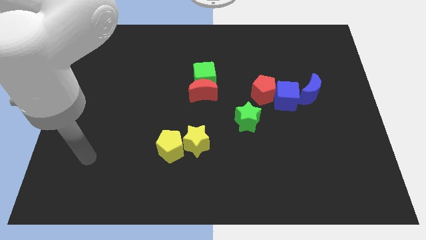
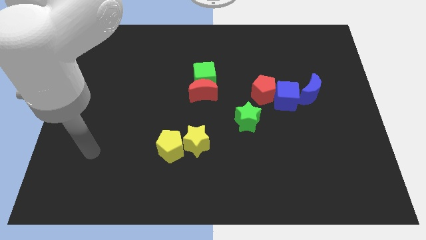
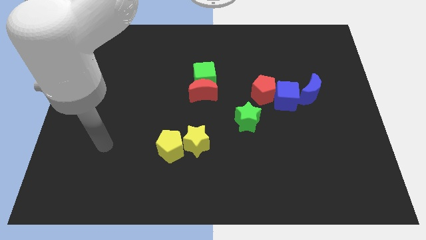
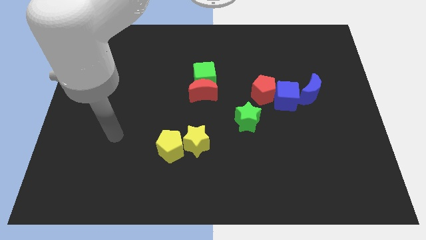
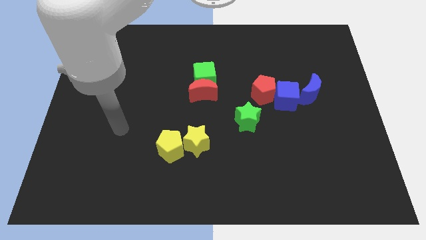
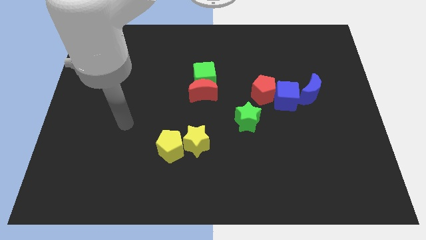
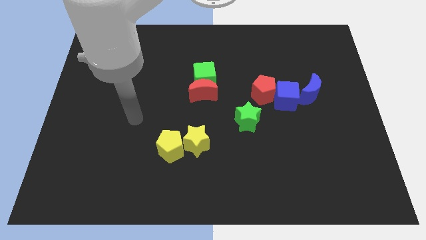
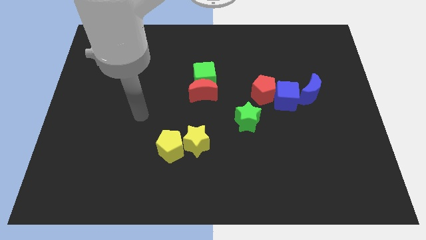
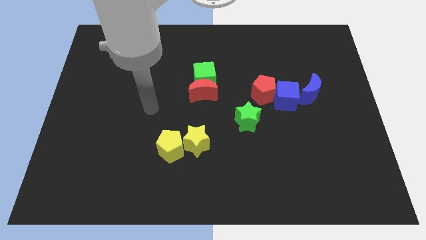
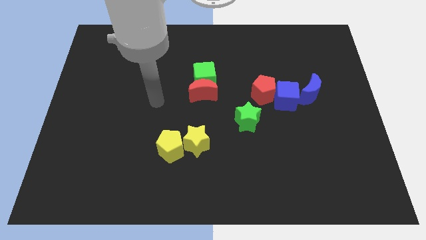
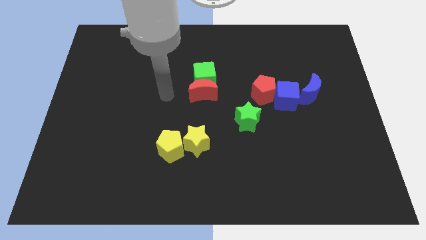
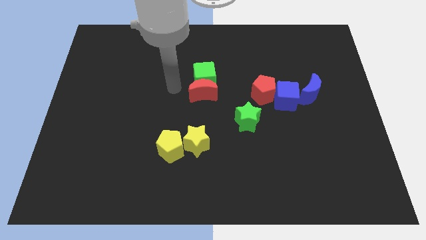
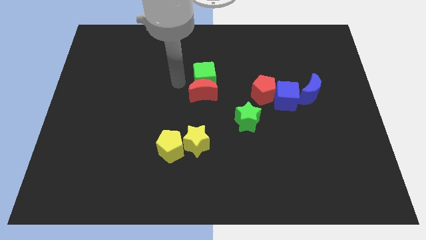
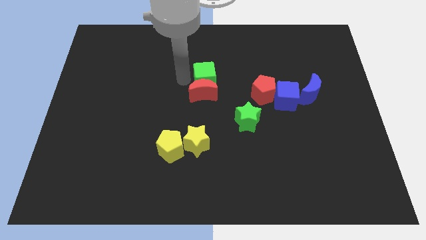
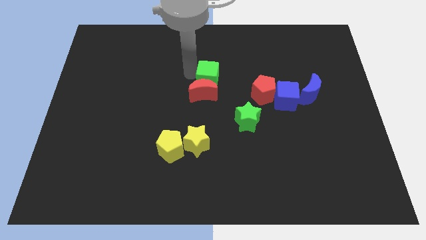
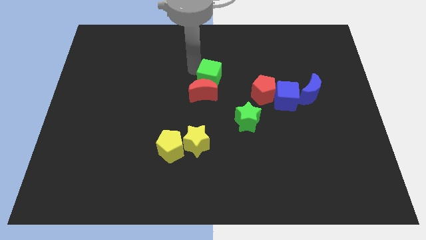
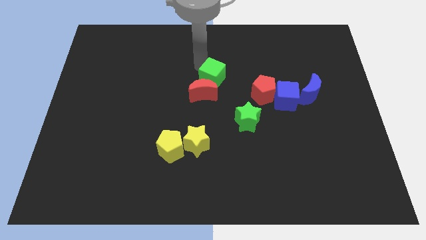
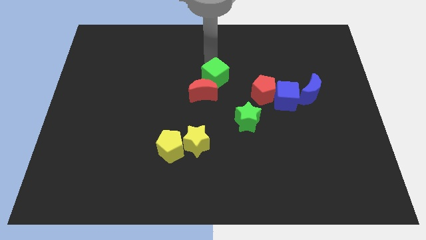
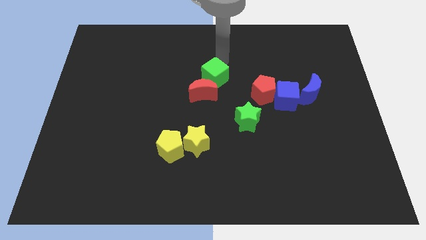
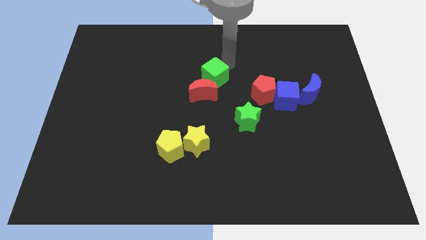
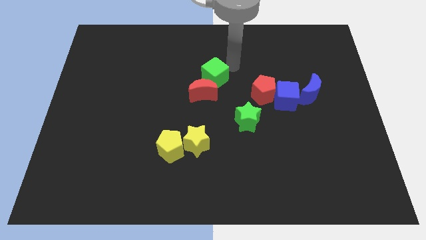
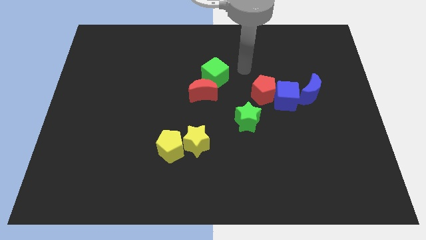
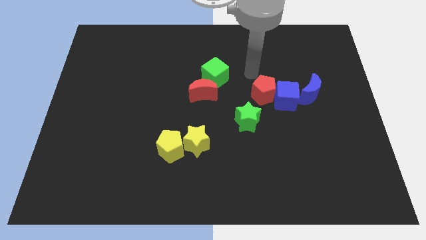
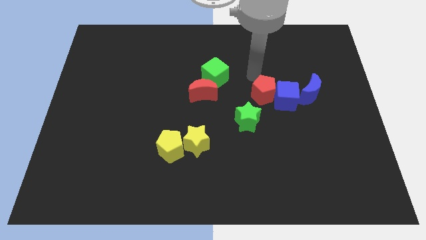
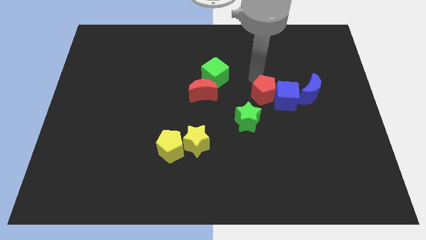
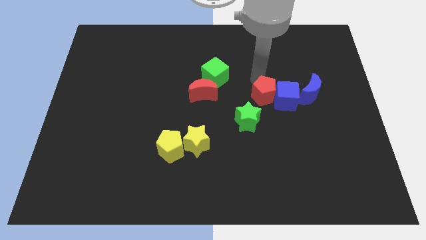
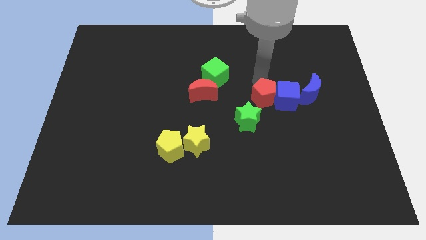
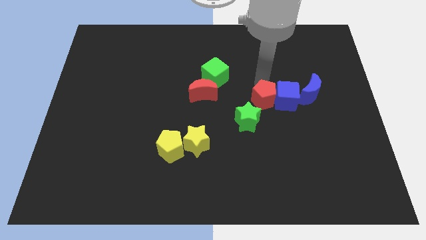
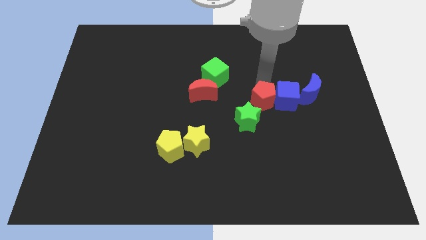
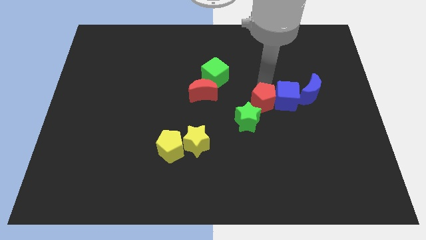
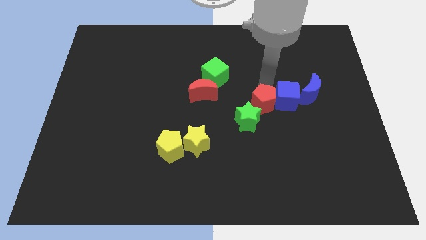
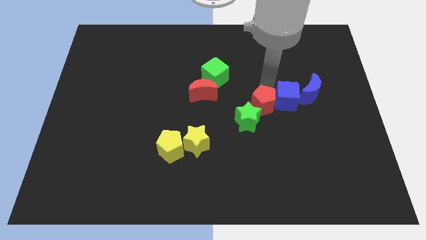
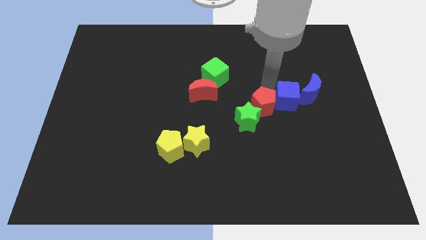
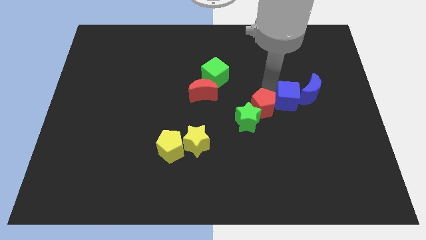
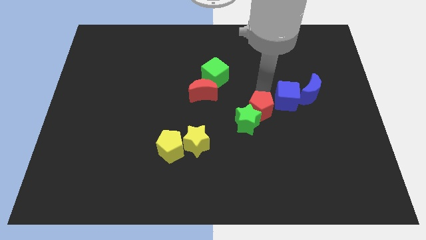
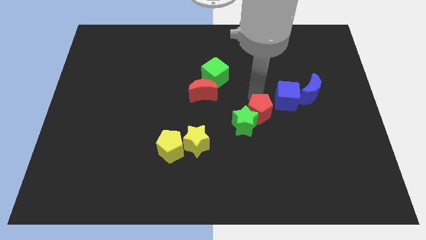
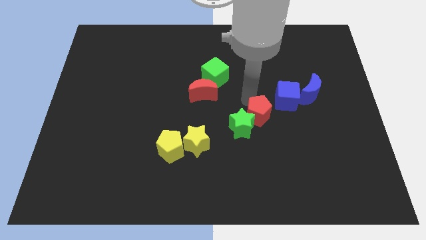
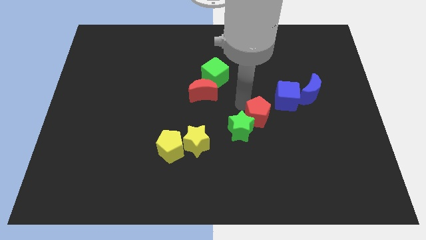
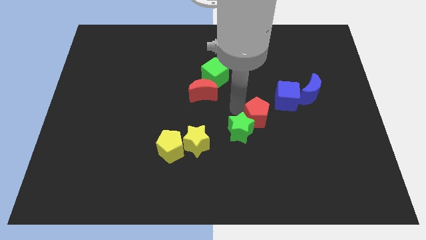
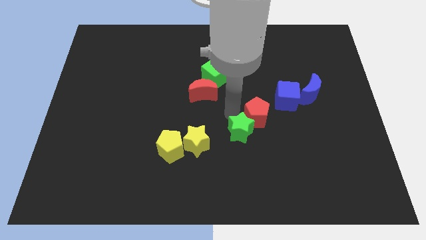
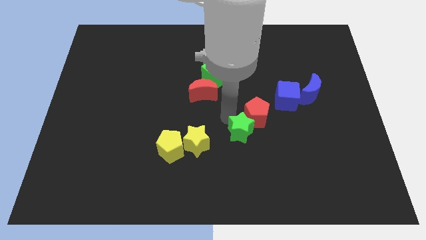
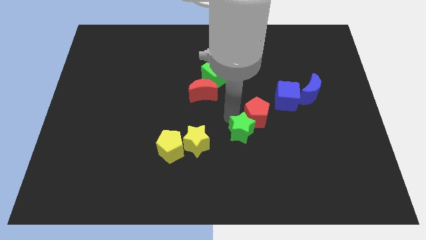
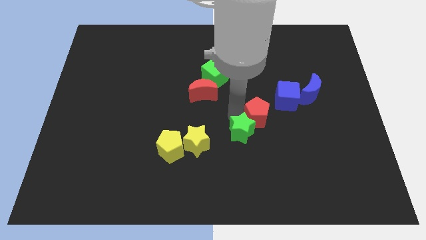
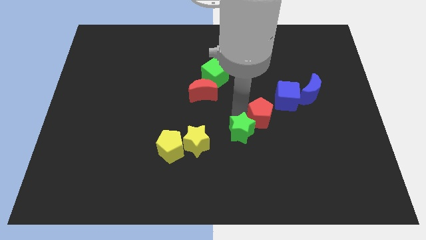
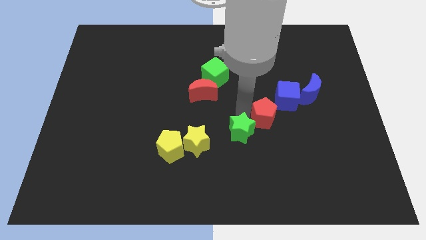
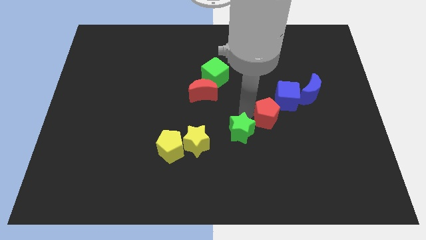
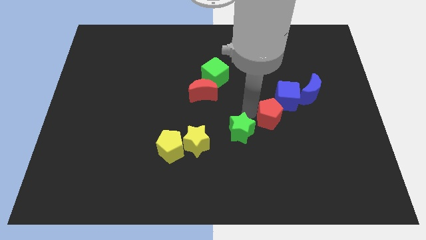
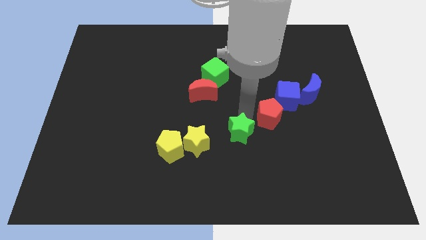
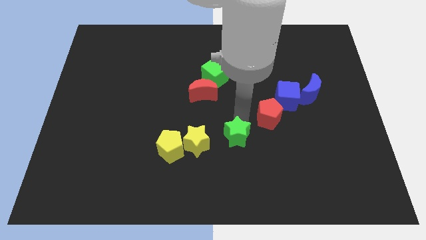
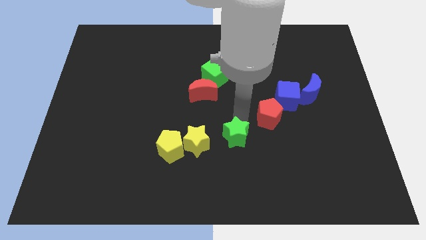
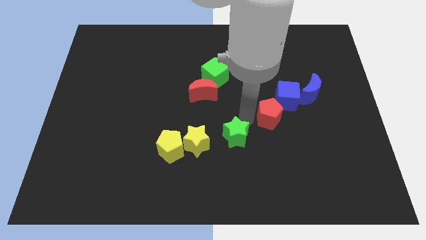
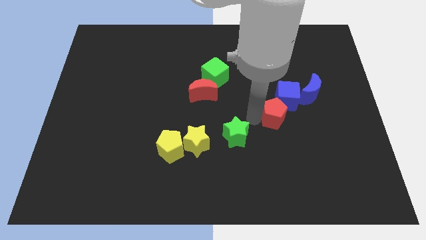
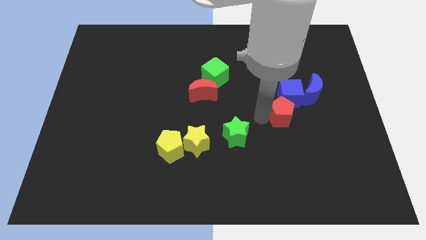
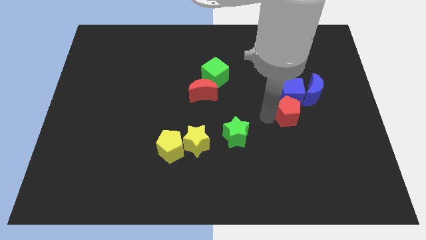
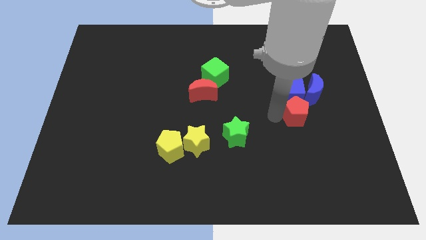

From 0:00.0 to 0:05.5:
push the red pentagon diagonally down and to the right of the blue cube

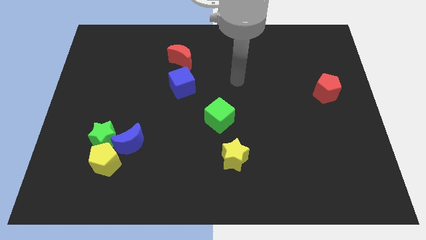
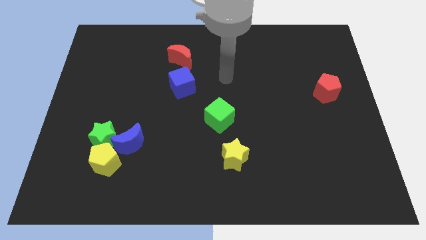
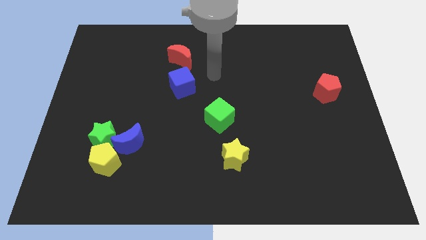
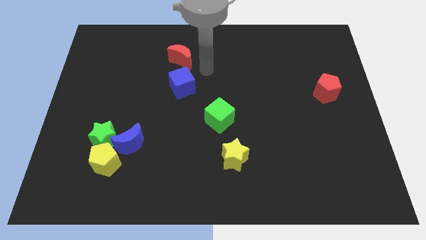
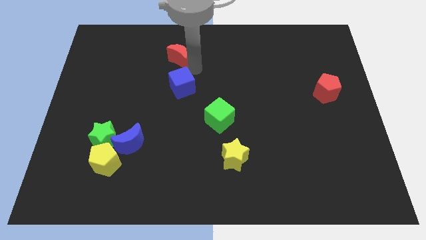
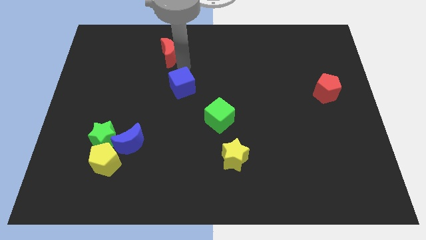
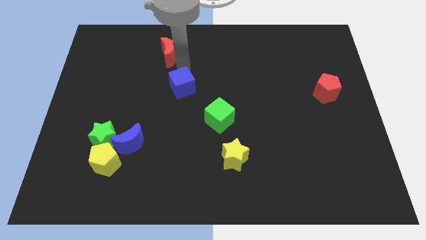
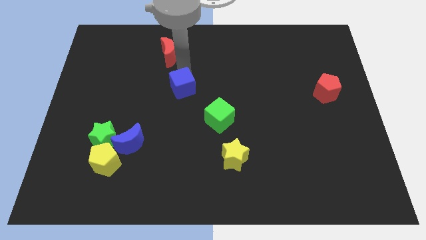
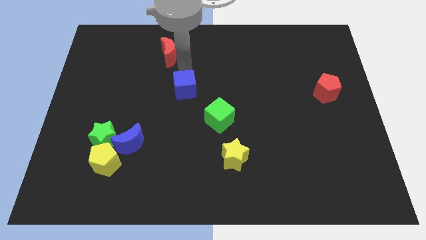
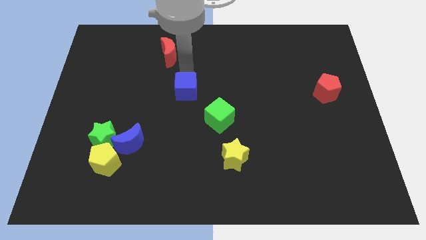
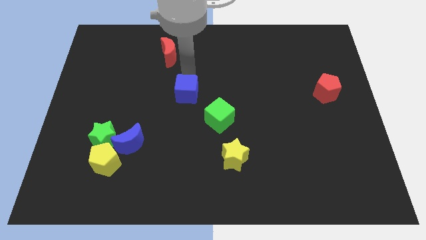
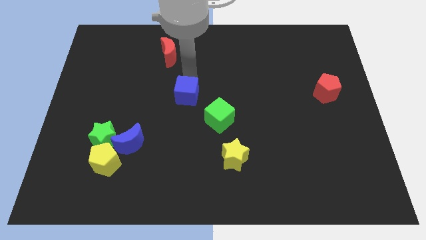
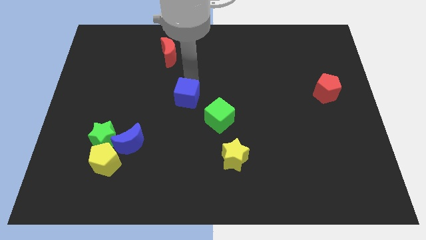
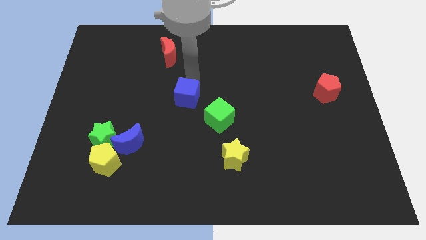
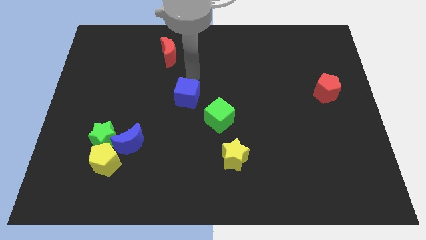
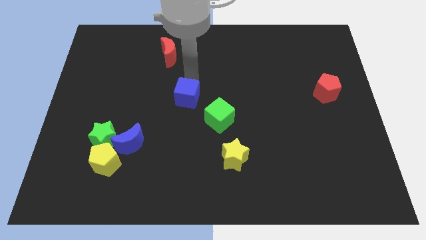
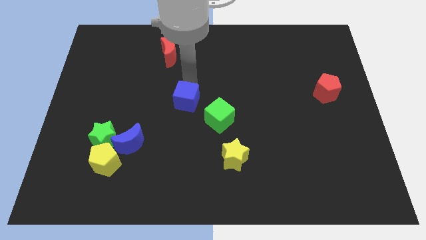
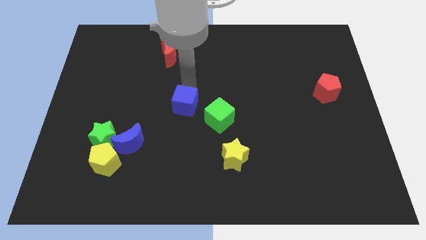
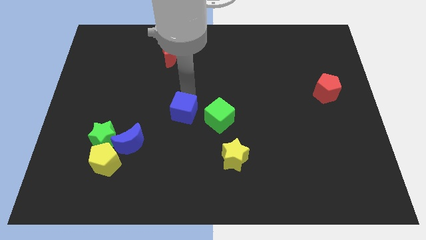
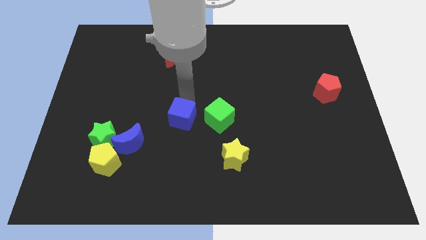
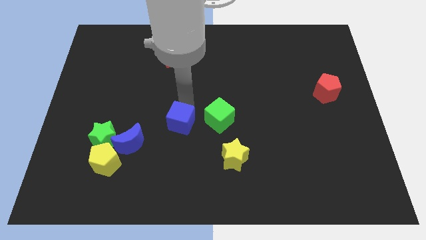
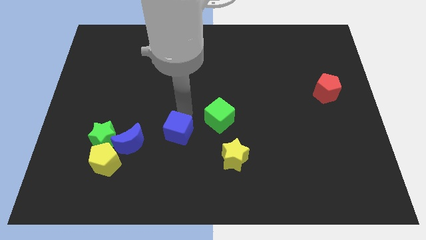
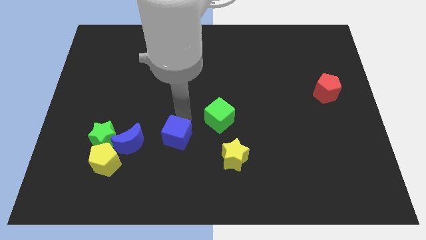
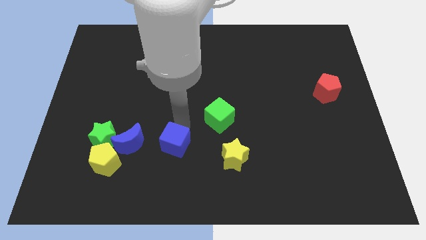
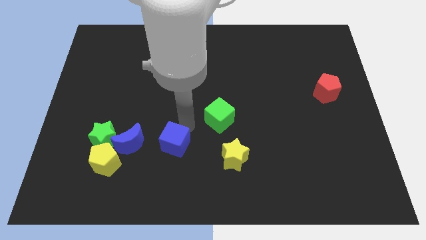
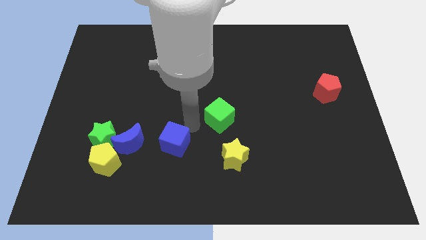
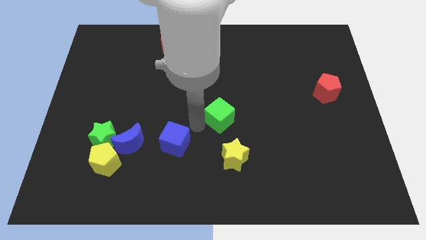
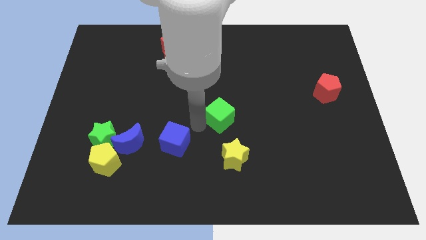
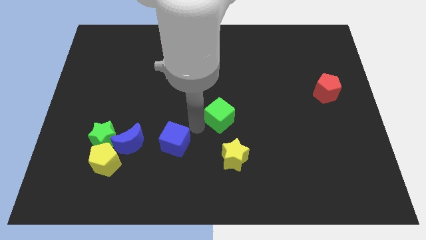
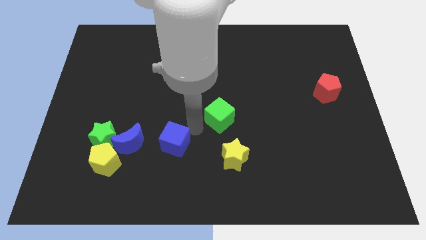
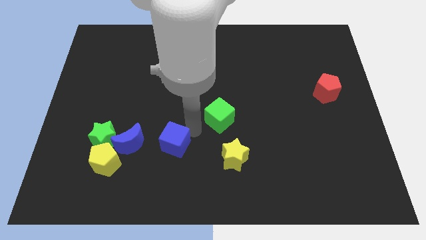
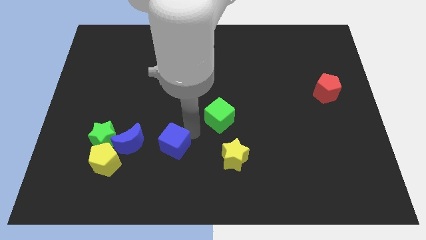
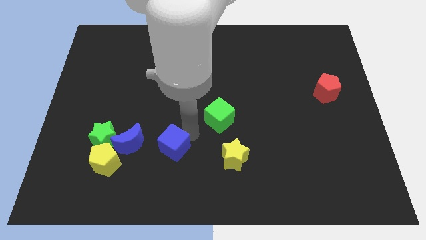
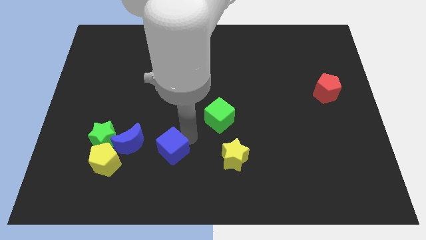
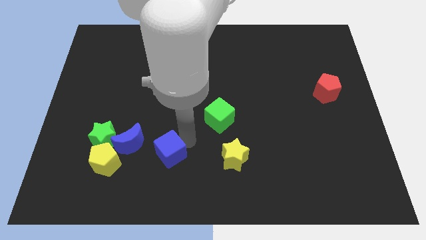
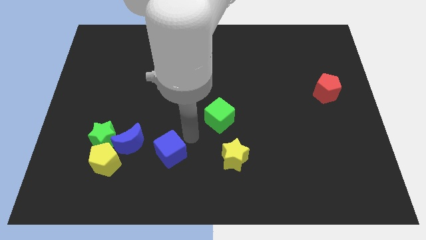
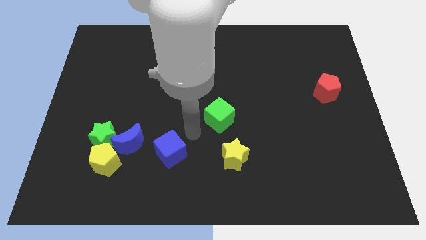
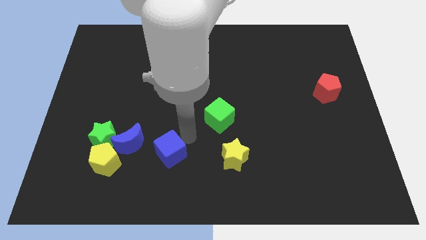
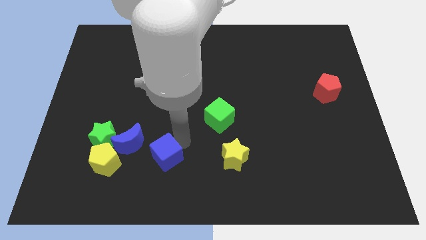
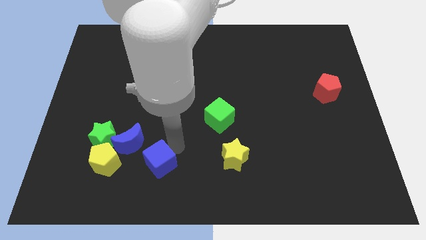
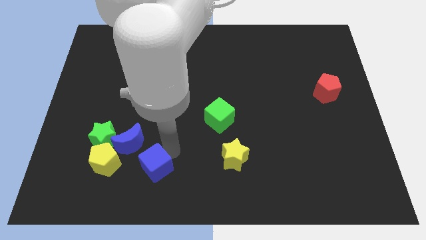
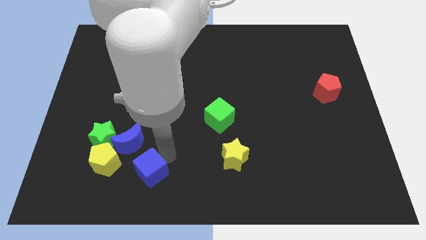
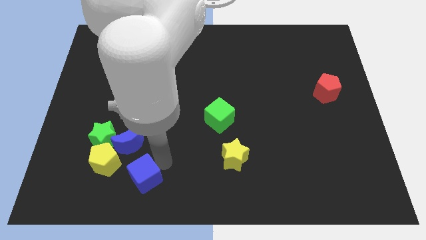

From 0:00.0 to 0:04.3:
put the blue cube diagonally down and to the right of the green star
